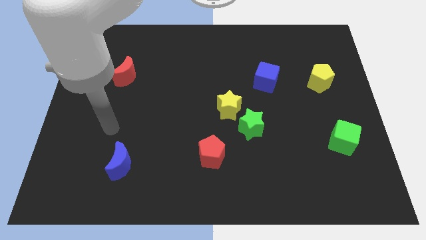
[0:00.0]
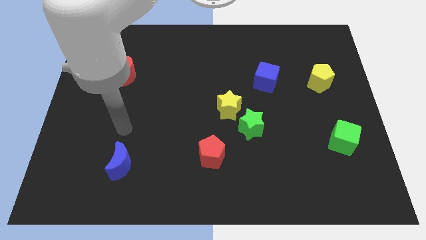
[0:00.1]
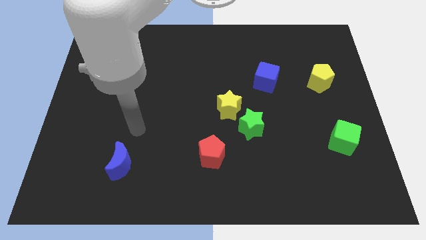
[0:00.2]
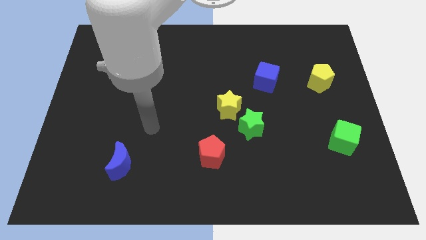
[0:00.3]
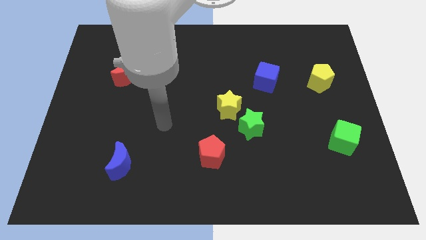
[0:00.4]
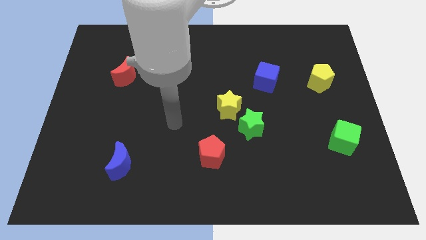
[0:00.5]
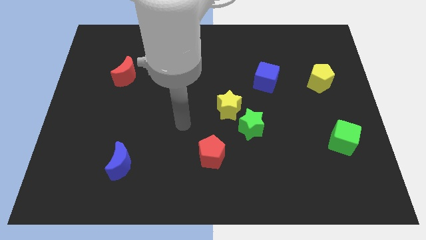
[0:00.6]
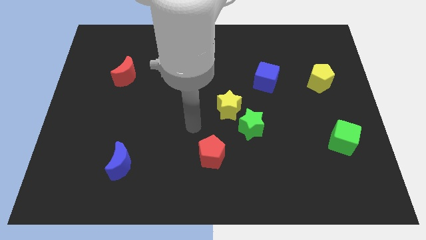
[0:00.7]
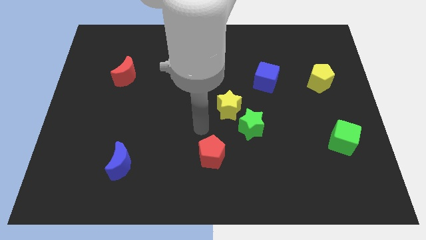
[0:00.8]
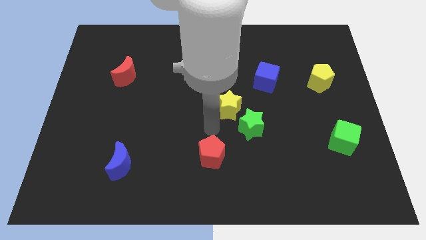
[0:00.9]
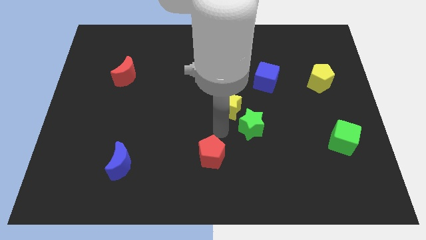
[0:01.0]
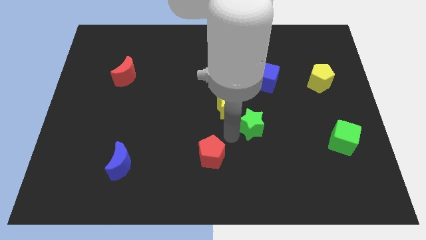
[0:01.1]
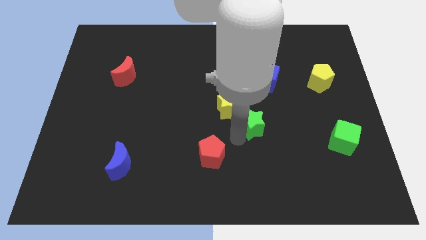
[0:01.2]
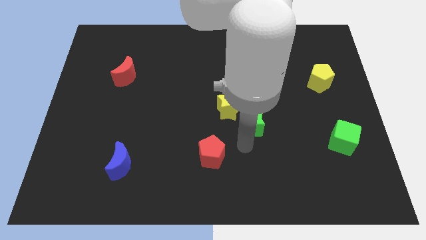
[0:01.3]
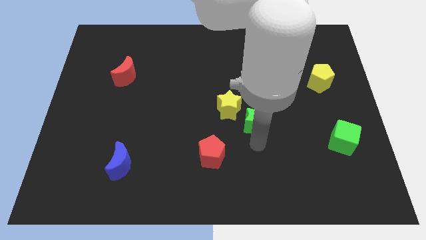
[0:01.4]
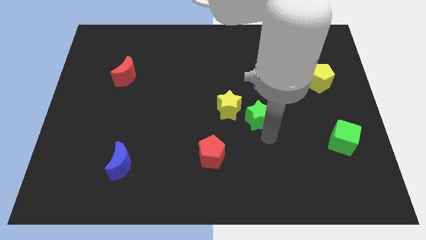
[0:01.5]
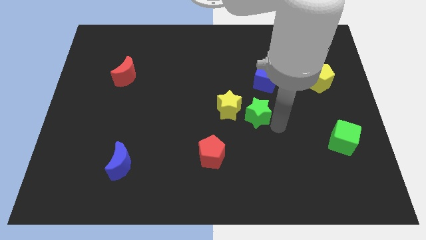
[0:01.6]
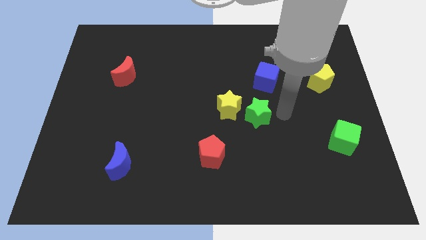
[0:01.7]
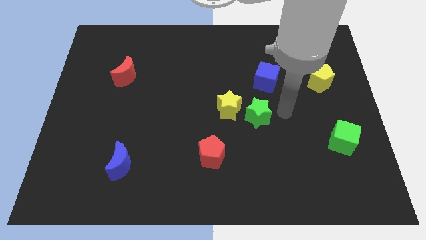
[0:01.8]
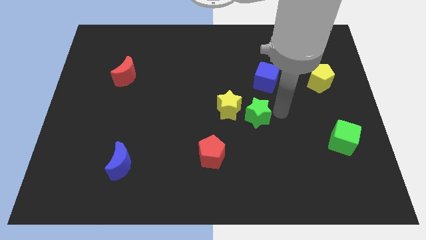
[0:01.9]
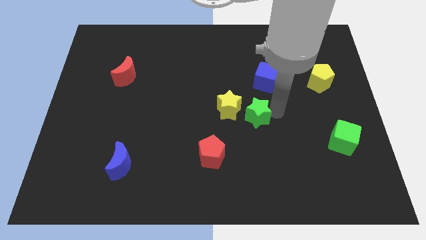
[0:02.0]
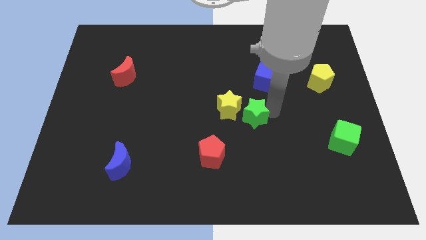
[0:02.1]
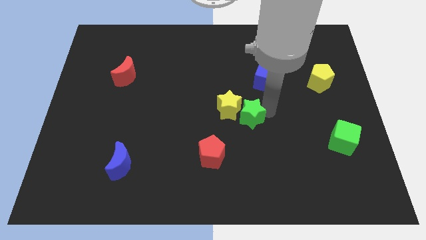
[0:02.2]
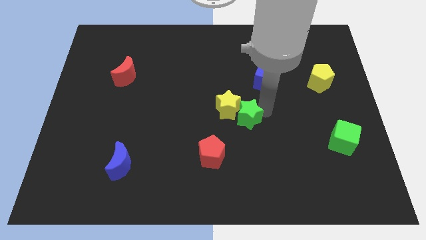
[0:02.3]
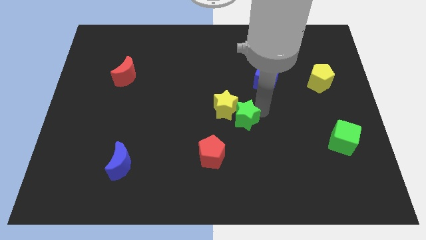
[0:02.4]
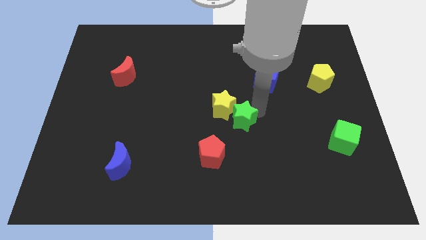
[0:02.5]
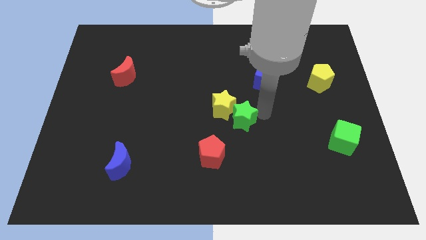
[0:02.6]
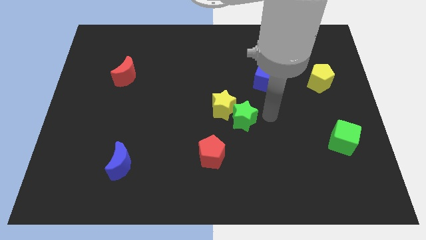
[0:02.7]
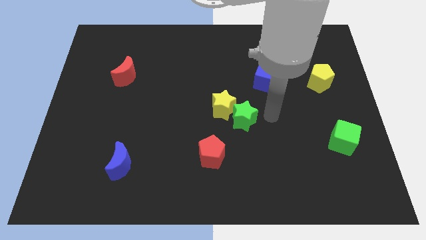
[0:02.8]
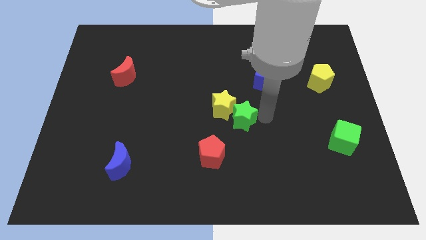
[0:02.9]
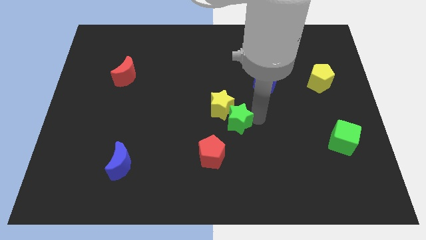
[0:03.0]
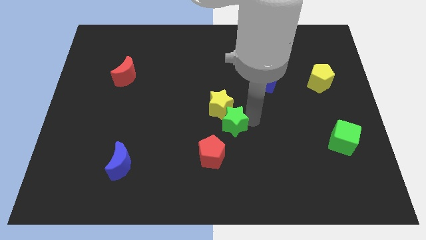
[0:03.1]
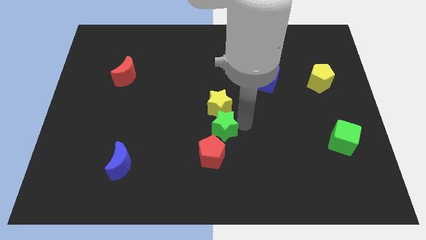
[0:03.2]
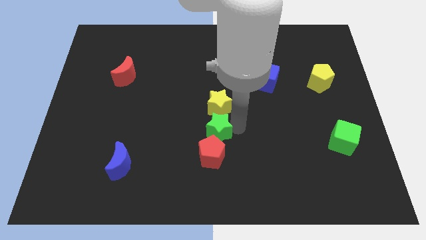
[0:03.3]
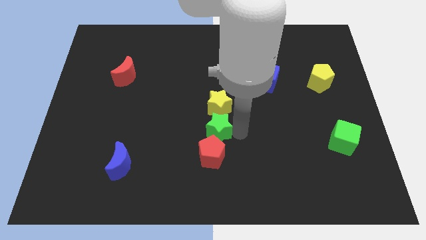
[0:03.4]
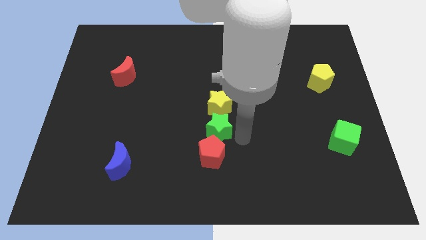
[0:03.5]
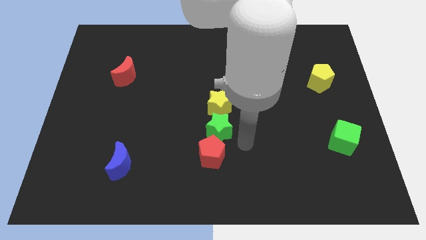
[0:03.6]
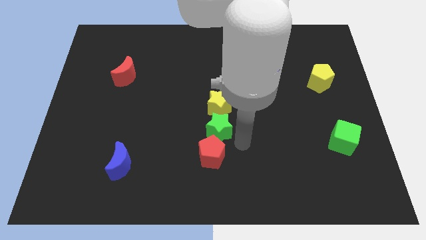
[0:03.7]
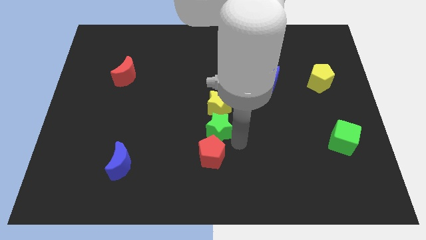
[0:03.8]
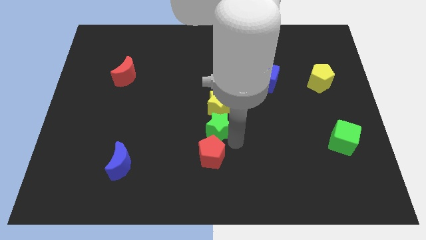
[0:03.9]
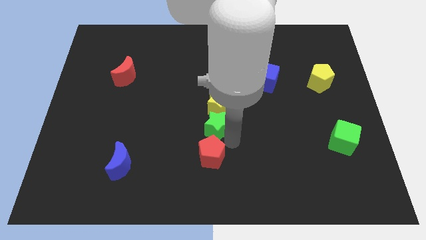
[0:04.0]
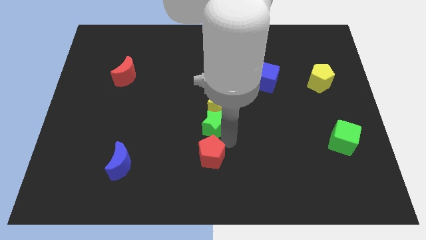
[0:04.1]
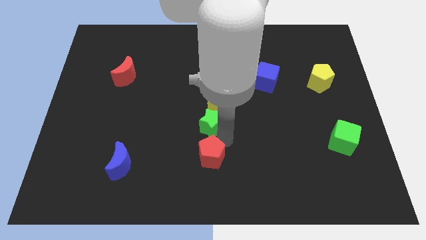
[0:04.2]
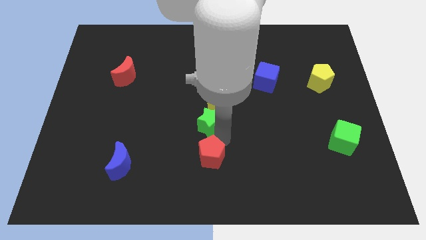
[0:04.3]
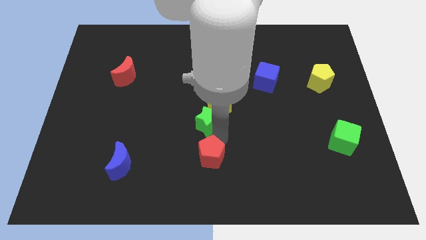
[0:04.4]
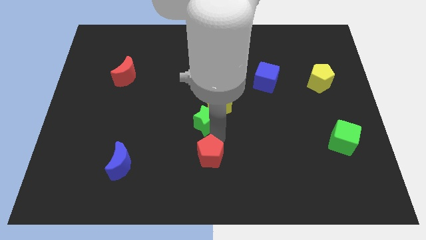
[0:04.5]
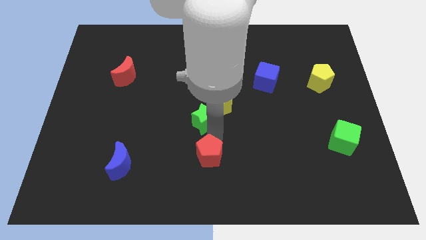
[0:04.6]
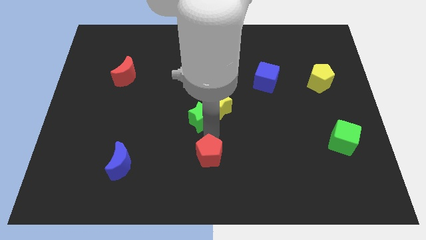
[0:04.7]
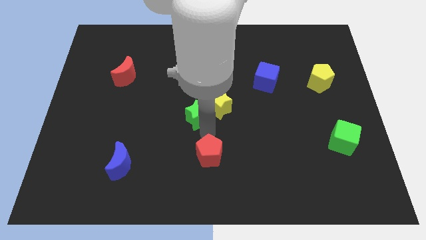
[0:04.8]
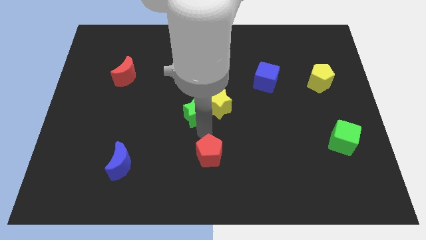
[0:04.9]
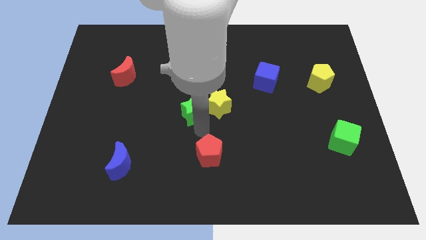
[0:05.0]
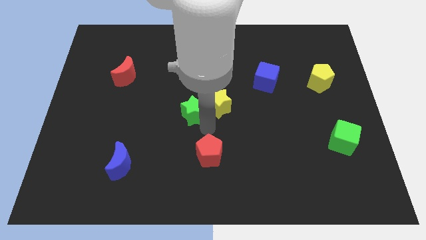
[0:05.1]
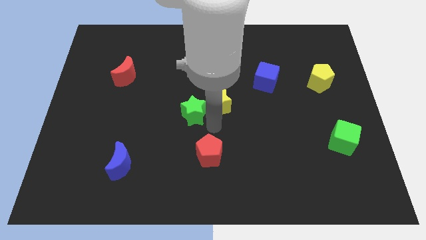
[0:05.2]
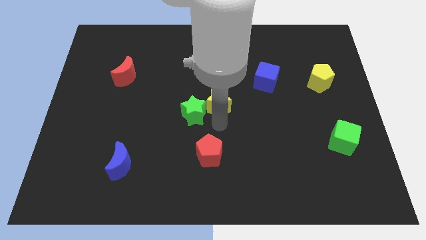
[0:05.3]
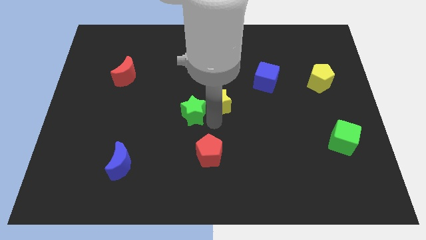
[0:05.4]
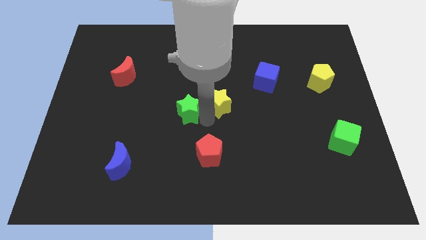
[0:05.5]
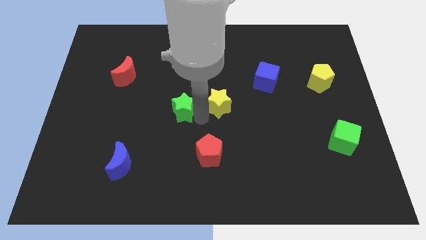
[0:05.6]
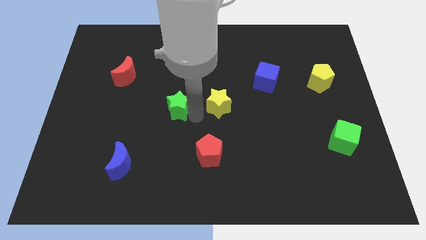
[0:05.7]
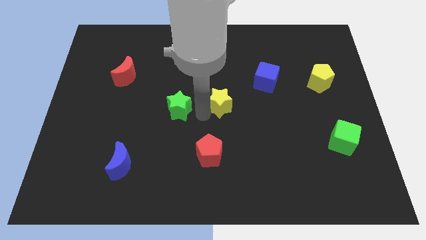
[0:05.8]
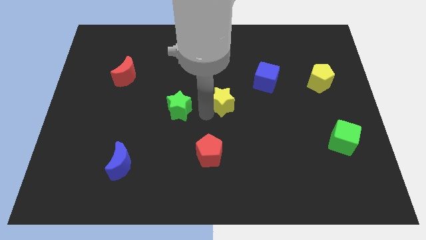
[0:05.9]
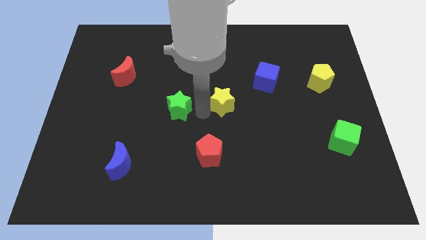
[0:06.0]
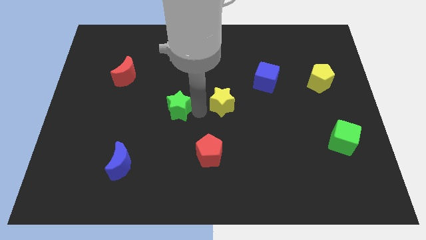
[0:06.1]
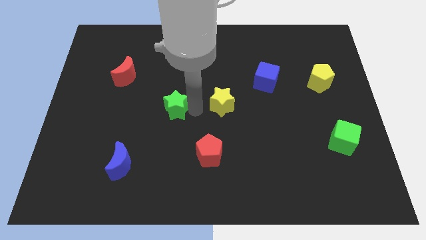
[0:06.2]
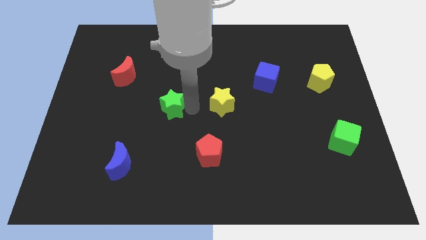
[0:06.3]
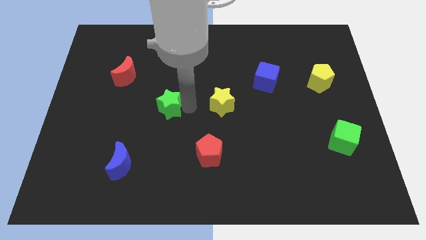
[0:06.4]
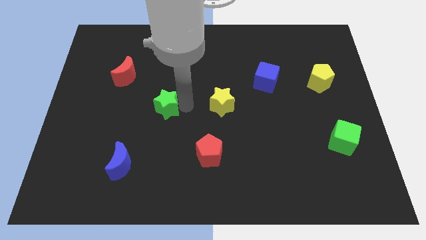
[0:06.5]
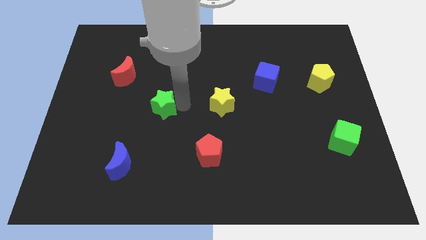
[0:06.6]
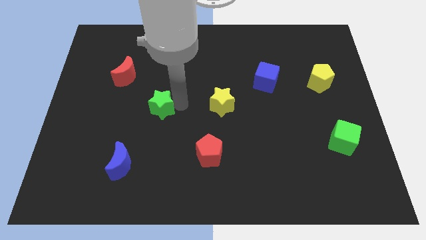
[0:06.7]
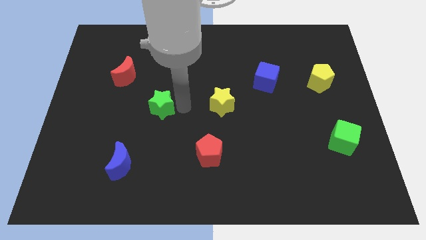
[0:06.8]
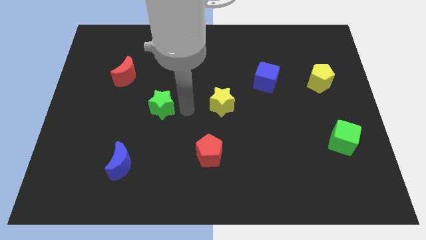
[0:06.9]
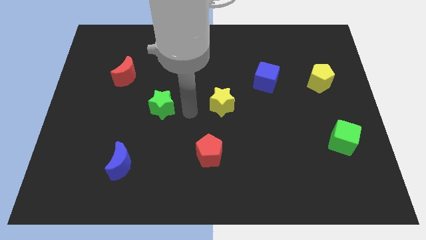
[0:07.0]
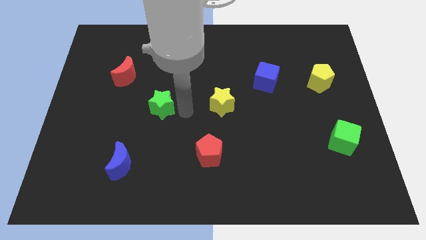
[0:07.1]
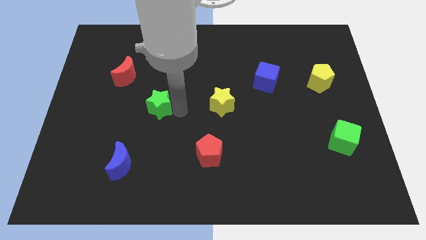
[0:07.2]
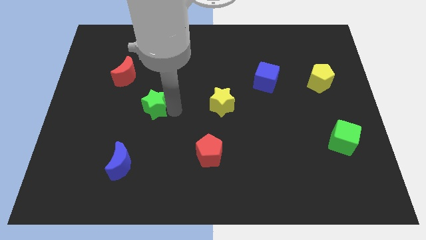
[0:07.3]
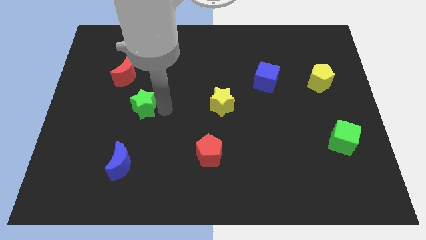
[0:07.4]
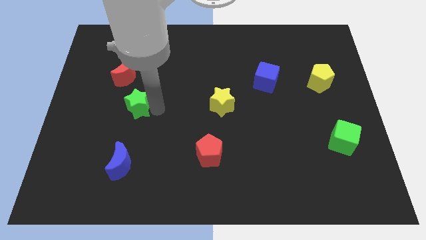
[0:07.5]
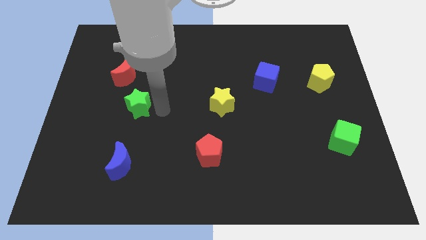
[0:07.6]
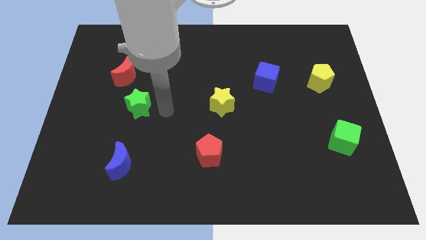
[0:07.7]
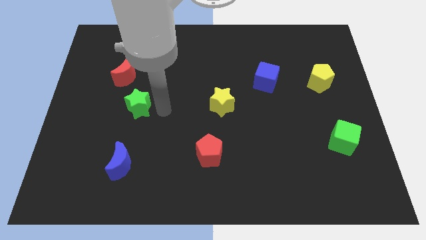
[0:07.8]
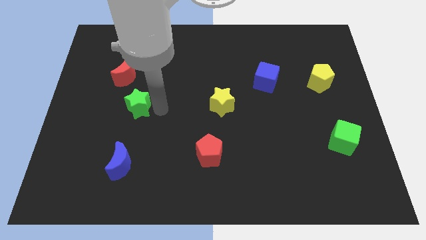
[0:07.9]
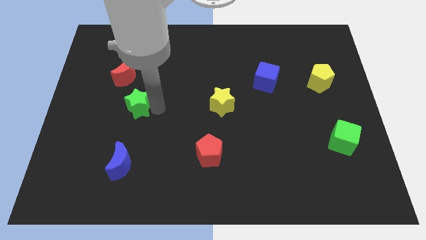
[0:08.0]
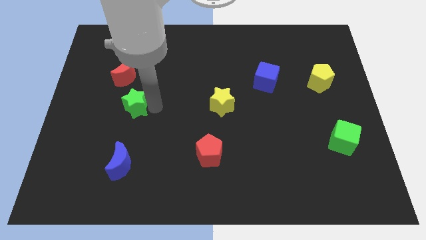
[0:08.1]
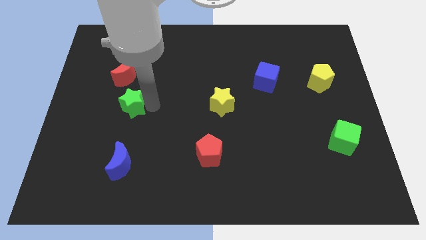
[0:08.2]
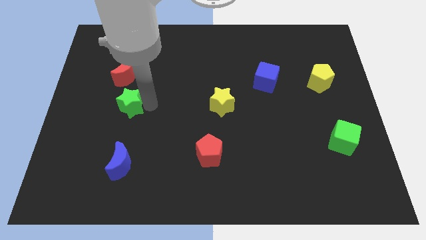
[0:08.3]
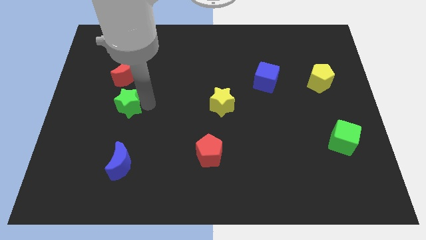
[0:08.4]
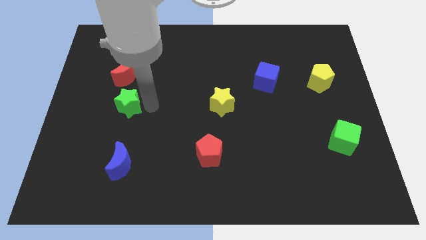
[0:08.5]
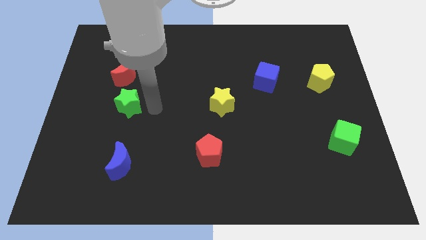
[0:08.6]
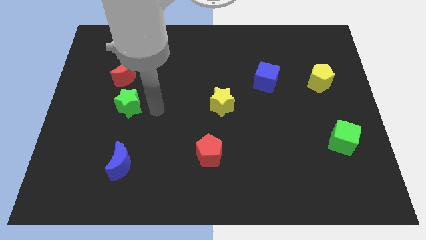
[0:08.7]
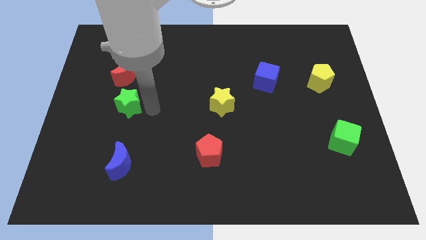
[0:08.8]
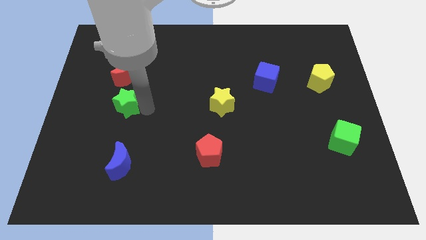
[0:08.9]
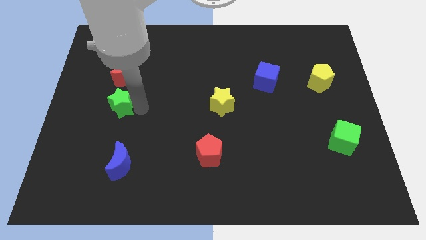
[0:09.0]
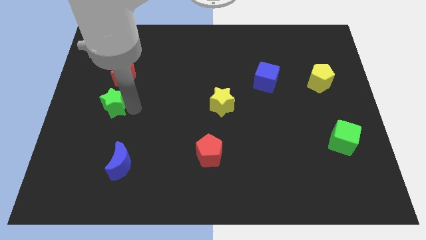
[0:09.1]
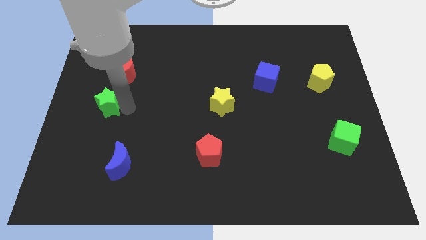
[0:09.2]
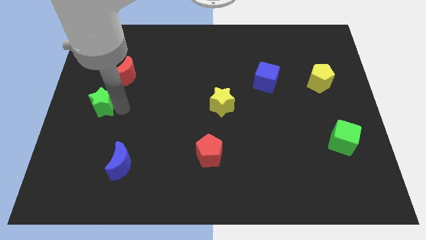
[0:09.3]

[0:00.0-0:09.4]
slide the green star to the center left
